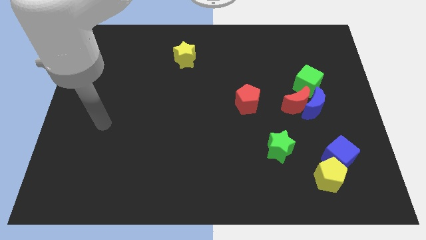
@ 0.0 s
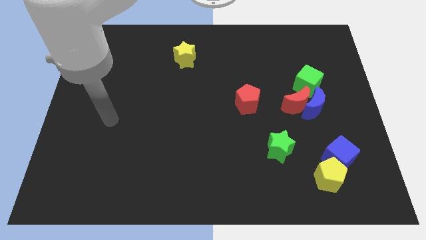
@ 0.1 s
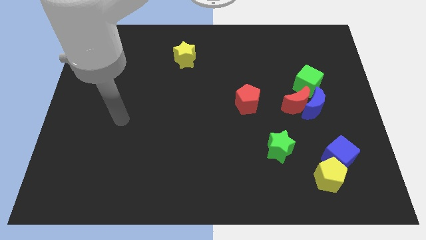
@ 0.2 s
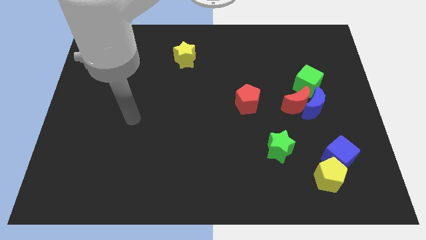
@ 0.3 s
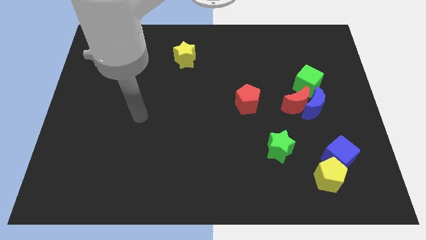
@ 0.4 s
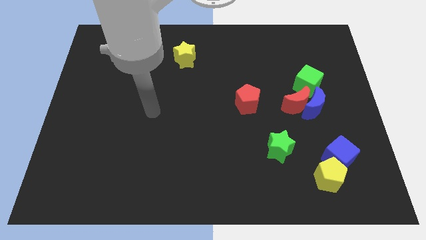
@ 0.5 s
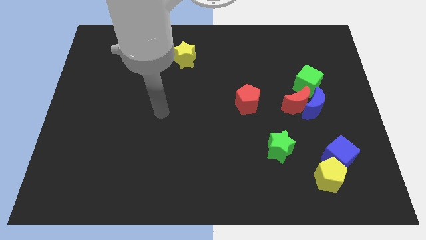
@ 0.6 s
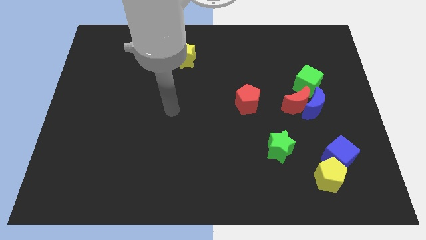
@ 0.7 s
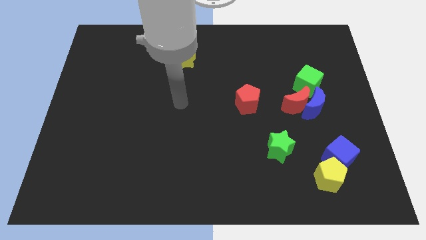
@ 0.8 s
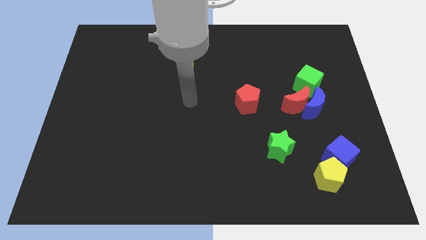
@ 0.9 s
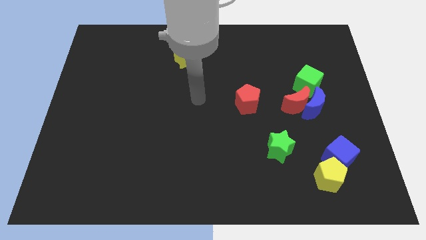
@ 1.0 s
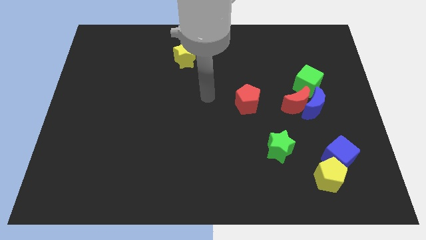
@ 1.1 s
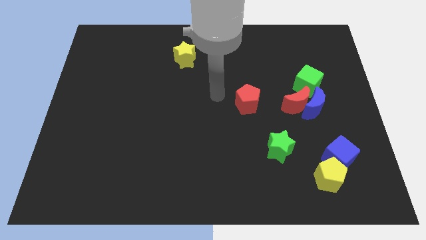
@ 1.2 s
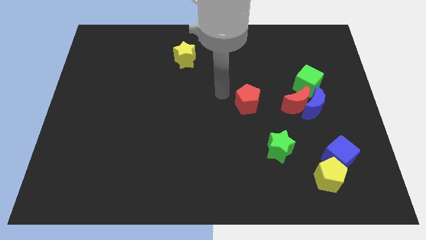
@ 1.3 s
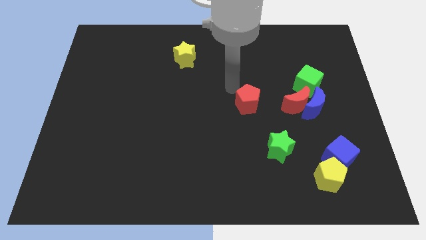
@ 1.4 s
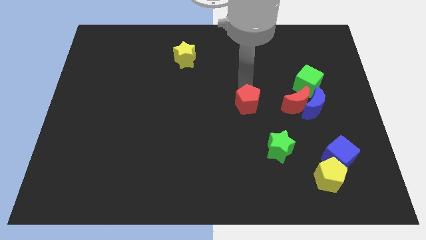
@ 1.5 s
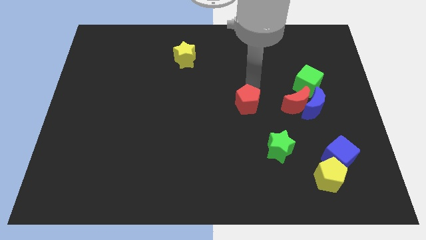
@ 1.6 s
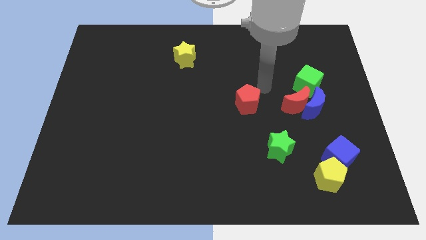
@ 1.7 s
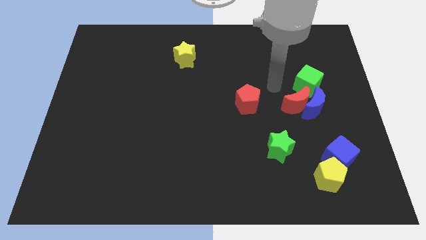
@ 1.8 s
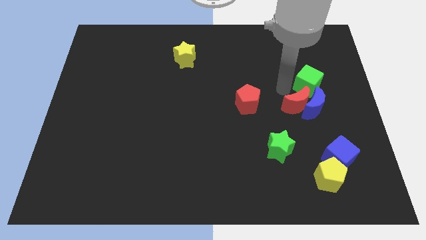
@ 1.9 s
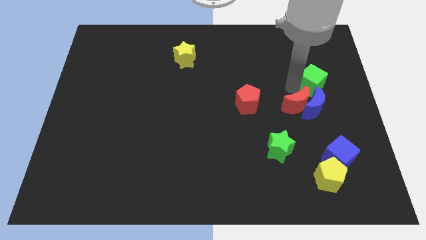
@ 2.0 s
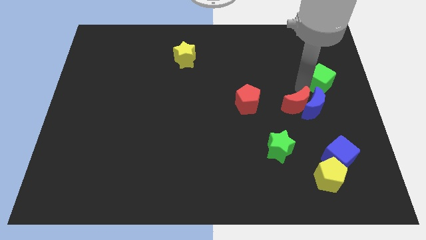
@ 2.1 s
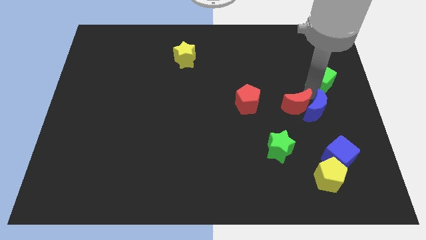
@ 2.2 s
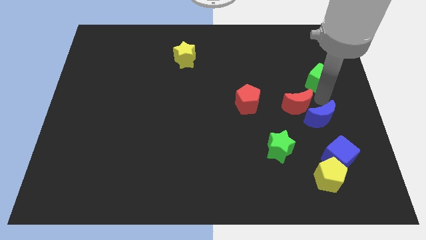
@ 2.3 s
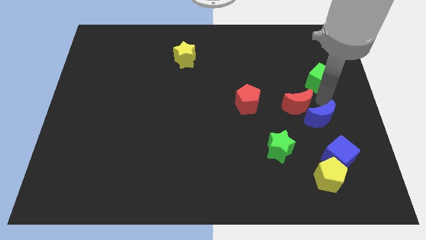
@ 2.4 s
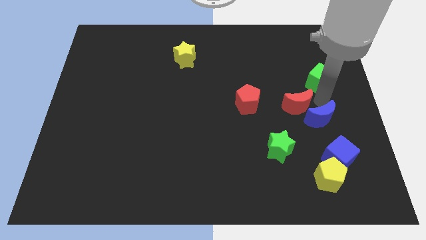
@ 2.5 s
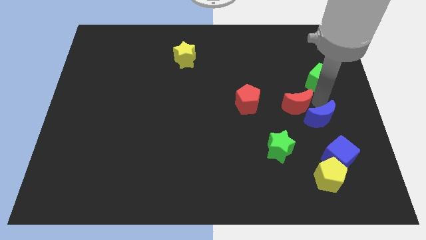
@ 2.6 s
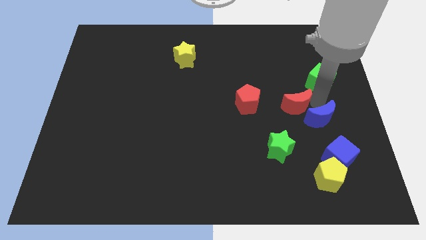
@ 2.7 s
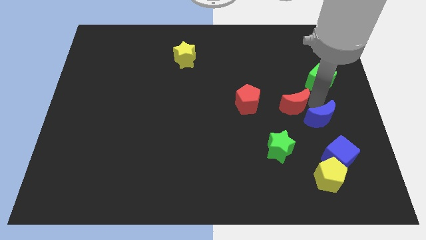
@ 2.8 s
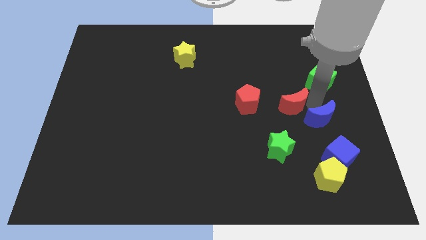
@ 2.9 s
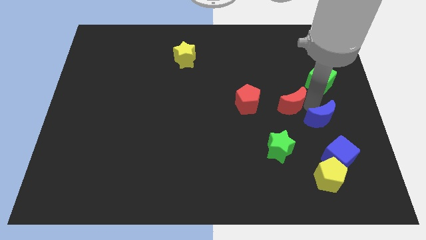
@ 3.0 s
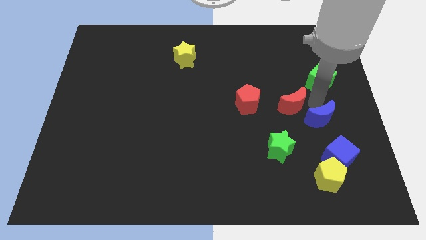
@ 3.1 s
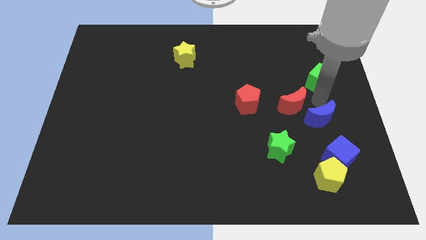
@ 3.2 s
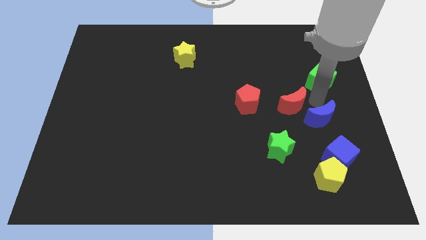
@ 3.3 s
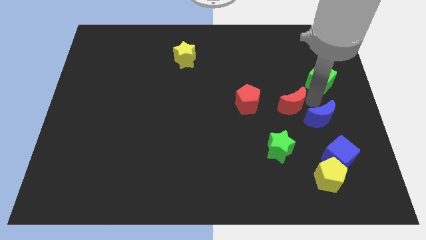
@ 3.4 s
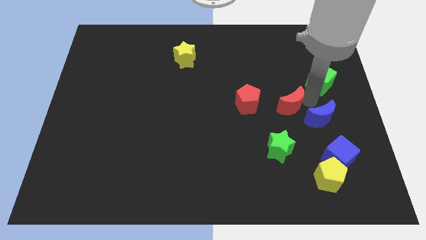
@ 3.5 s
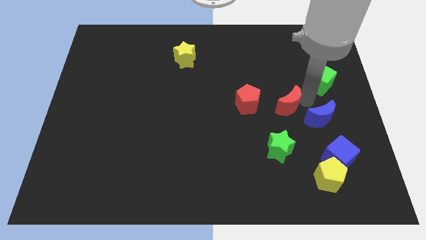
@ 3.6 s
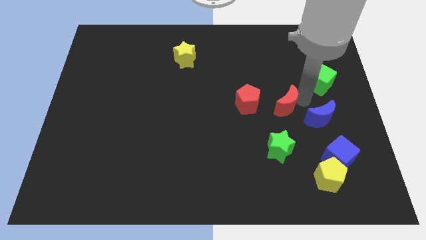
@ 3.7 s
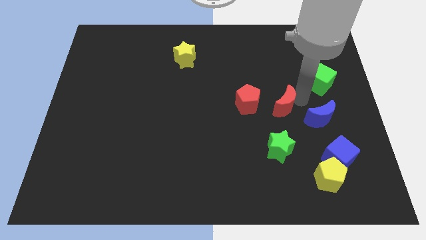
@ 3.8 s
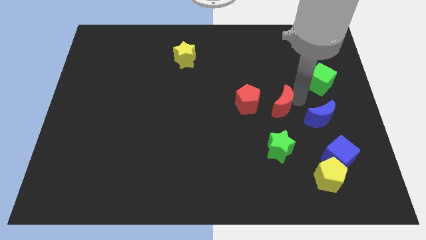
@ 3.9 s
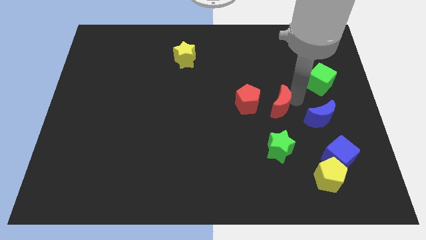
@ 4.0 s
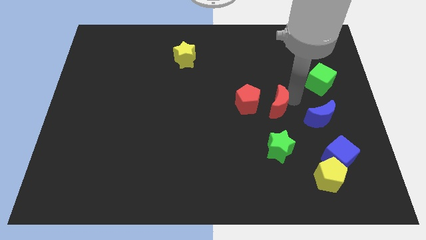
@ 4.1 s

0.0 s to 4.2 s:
move the red moon away from the blue moon and green cube

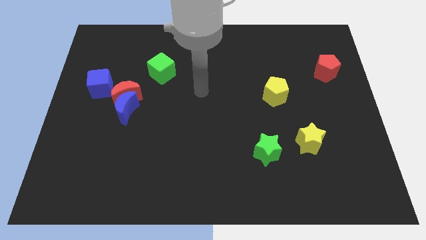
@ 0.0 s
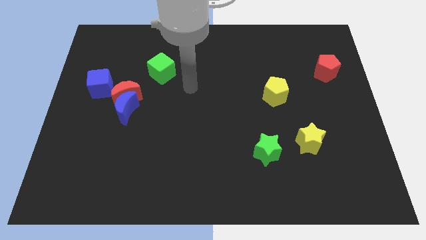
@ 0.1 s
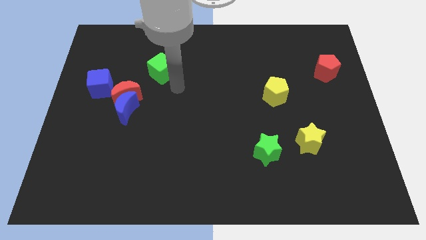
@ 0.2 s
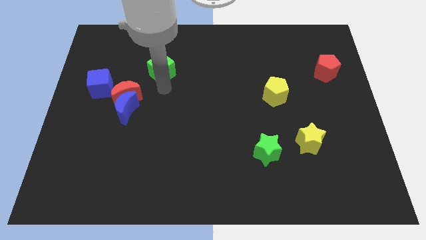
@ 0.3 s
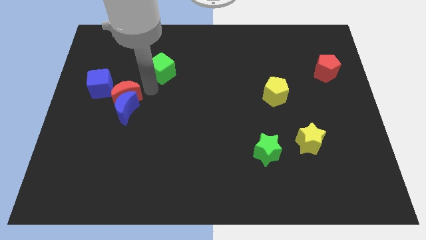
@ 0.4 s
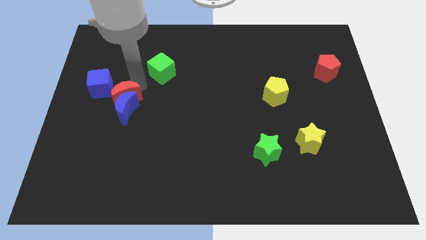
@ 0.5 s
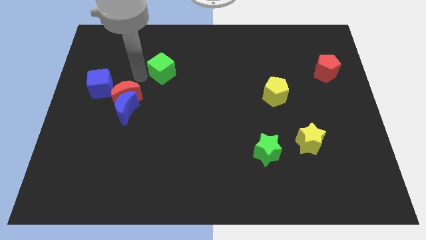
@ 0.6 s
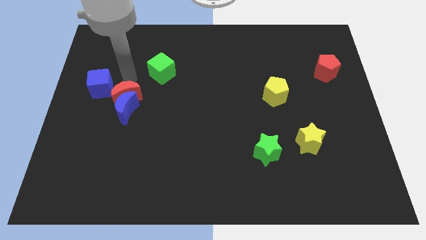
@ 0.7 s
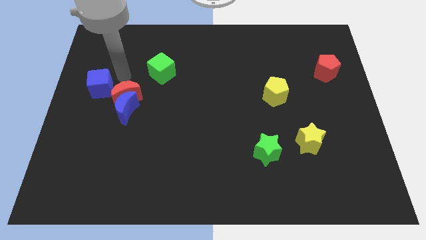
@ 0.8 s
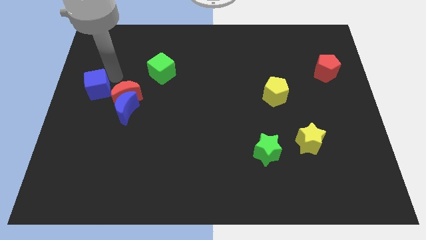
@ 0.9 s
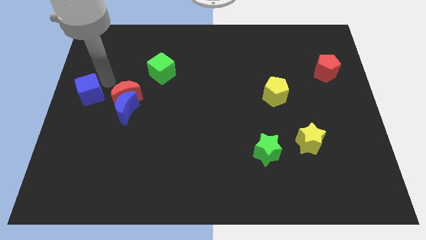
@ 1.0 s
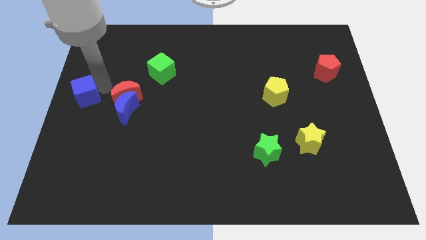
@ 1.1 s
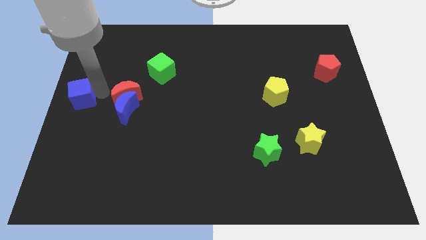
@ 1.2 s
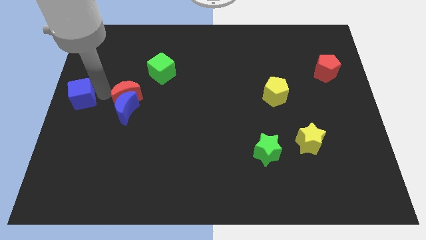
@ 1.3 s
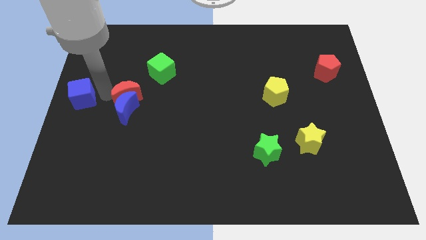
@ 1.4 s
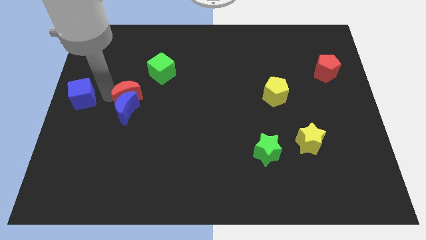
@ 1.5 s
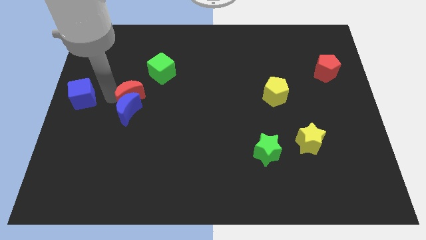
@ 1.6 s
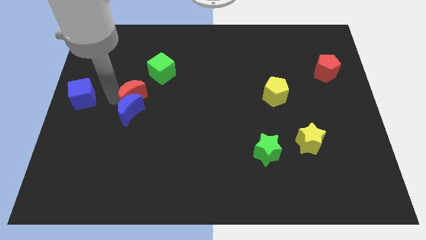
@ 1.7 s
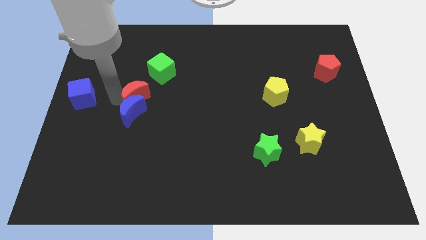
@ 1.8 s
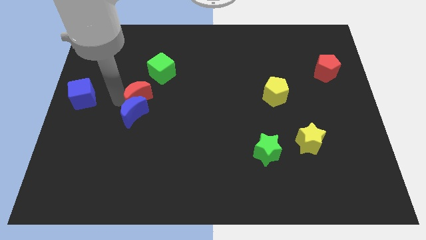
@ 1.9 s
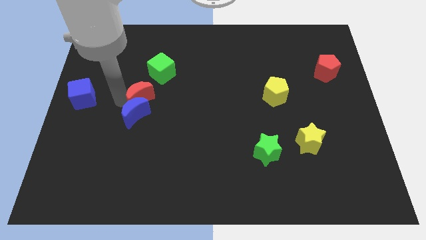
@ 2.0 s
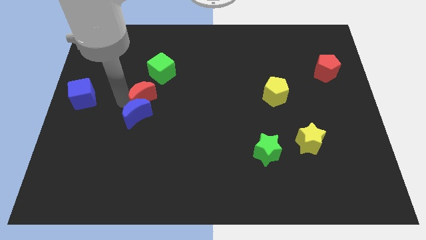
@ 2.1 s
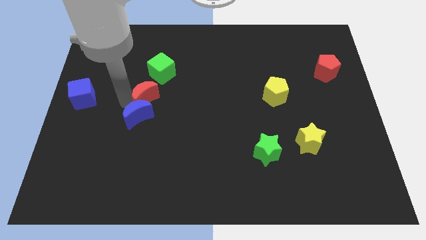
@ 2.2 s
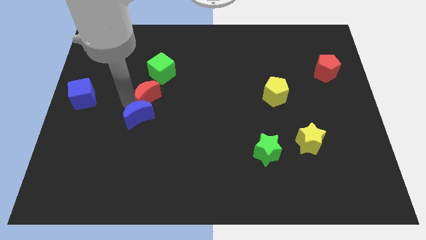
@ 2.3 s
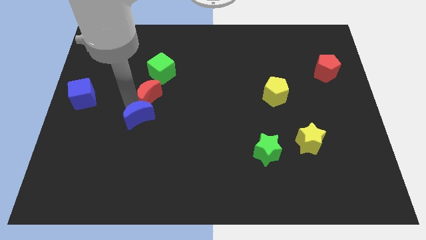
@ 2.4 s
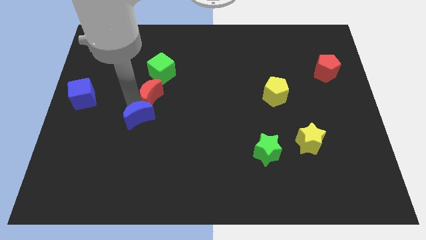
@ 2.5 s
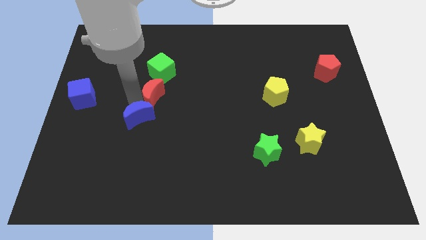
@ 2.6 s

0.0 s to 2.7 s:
pull the red moon apart from the blue moon and blue cube

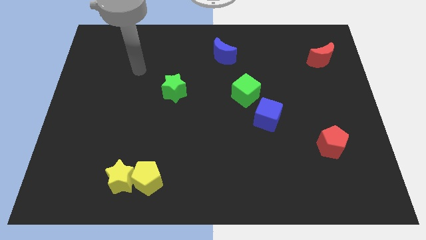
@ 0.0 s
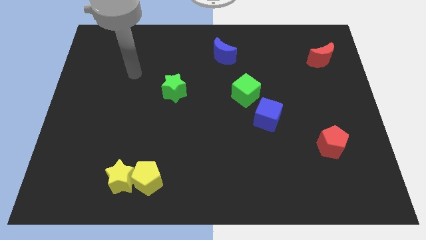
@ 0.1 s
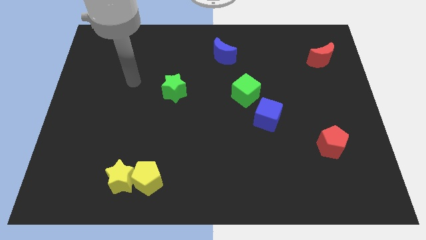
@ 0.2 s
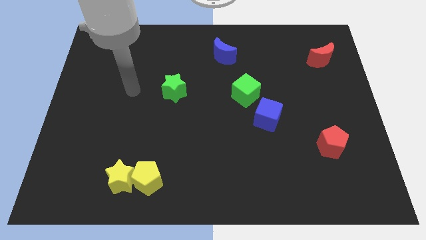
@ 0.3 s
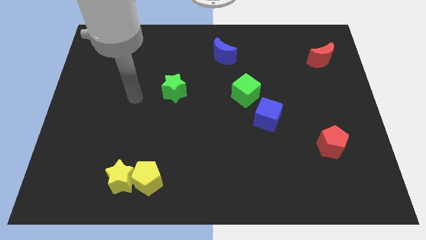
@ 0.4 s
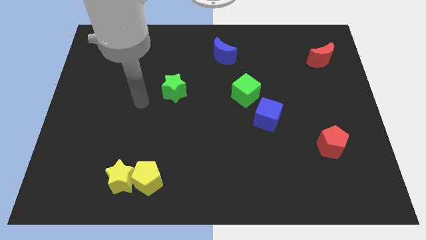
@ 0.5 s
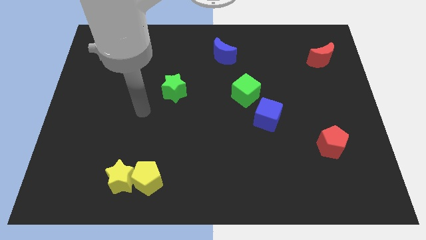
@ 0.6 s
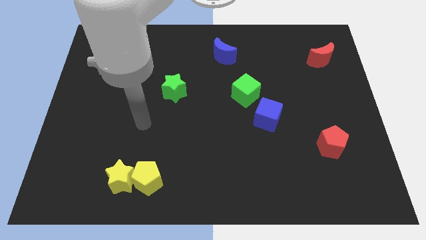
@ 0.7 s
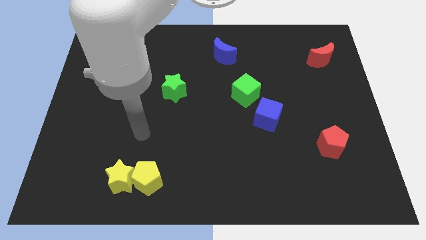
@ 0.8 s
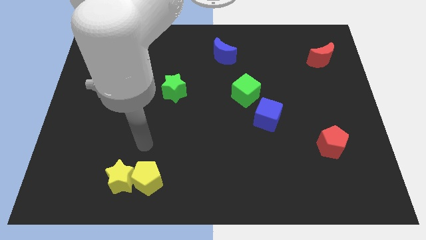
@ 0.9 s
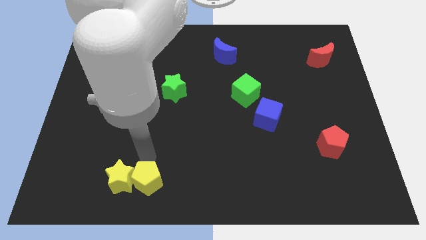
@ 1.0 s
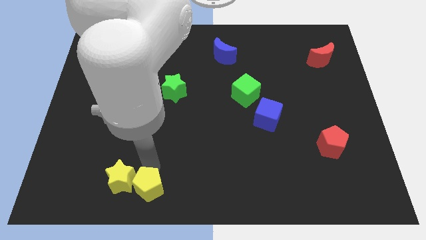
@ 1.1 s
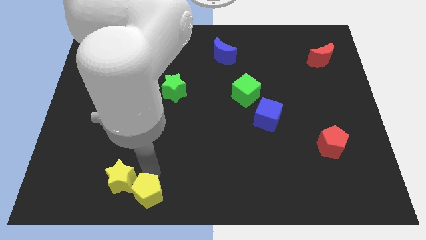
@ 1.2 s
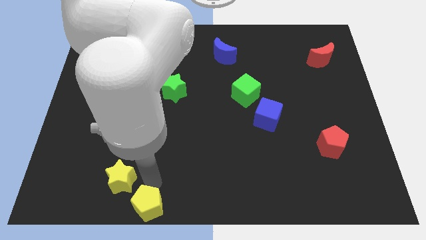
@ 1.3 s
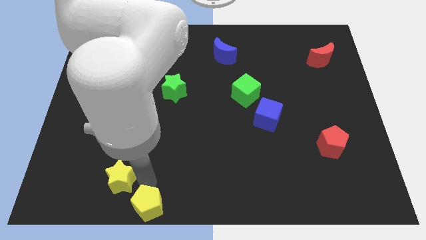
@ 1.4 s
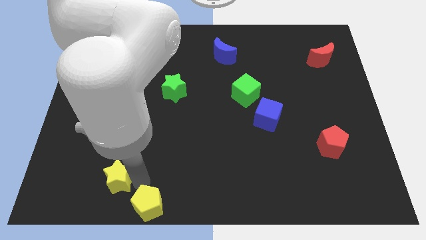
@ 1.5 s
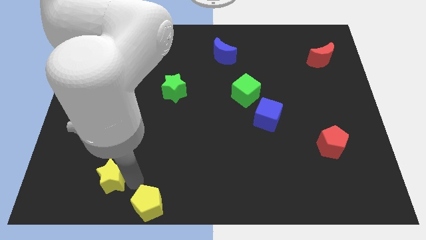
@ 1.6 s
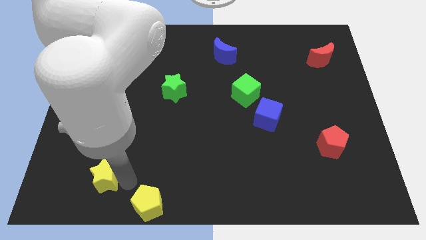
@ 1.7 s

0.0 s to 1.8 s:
pull the yellow star apart from the yellow pentagon

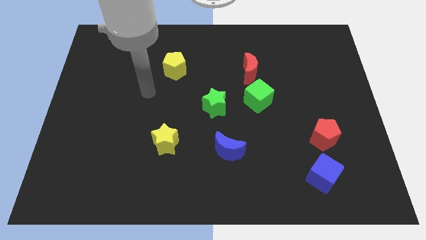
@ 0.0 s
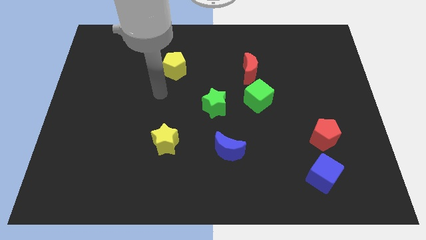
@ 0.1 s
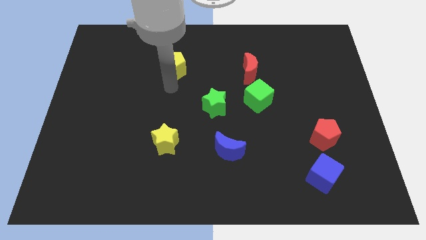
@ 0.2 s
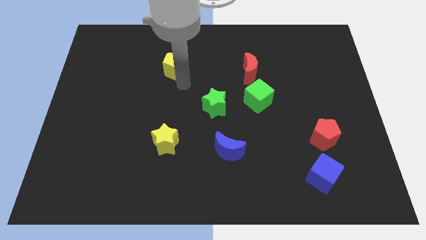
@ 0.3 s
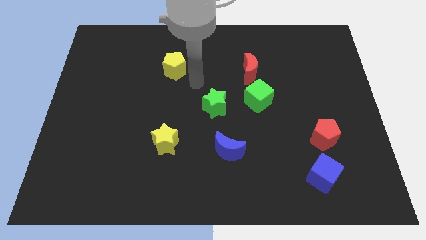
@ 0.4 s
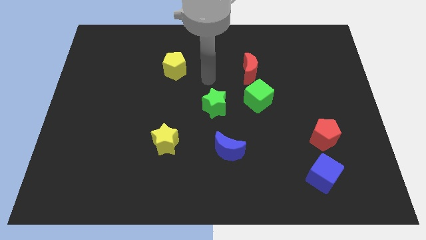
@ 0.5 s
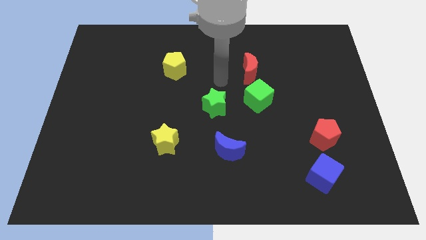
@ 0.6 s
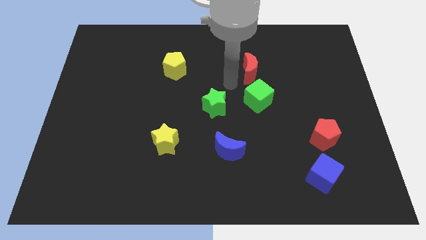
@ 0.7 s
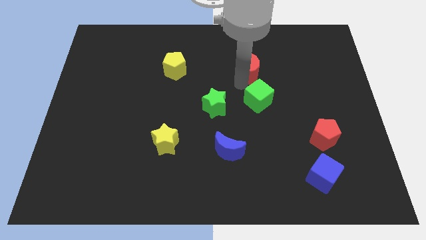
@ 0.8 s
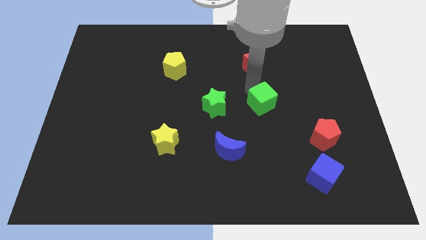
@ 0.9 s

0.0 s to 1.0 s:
pull the red moon apart from the green cube
